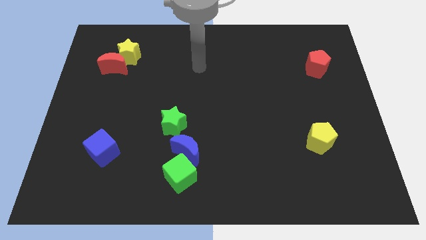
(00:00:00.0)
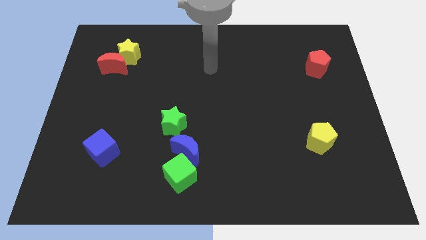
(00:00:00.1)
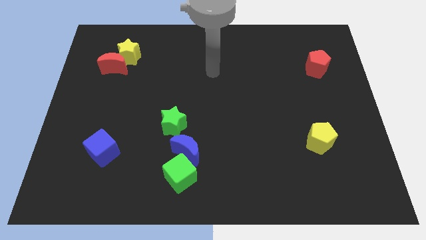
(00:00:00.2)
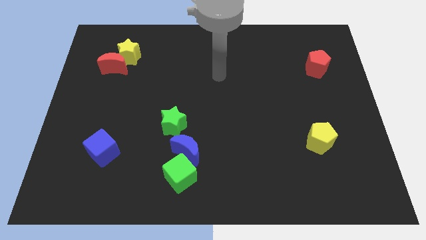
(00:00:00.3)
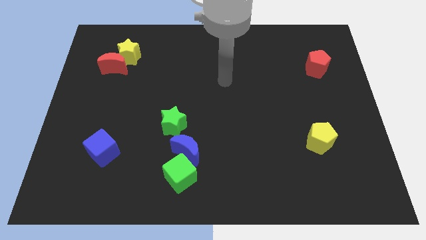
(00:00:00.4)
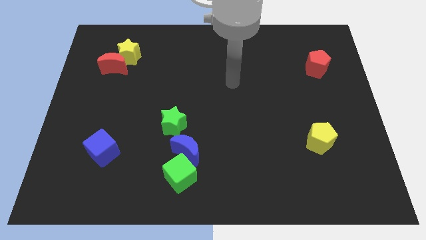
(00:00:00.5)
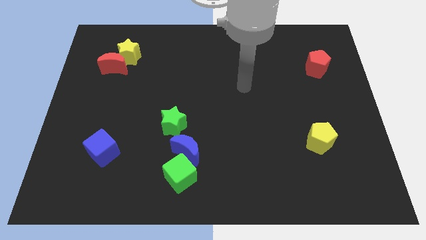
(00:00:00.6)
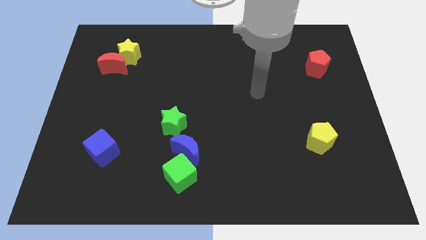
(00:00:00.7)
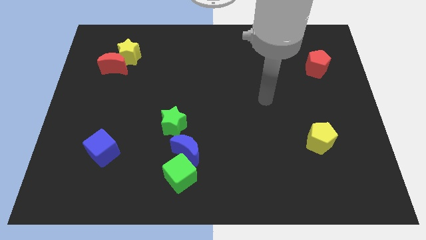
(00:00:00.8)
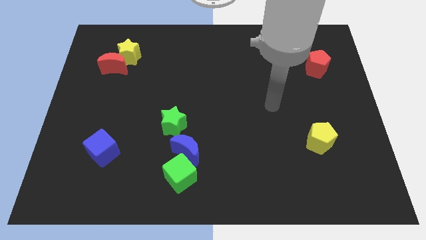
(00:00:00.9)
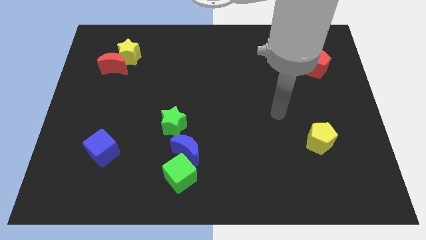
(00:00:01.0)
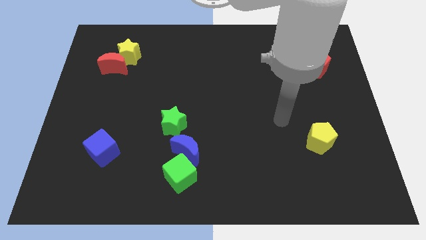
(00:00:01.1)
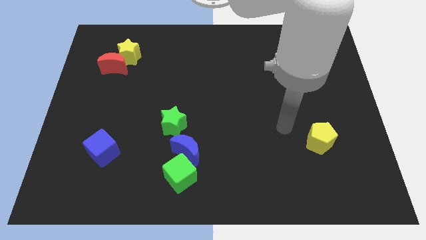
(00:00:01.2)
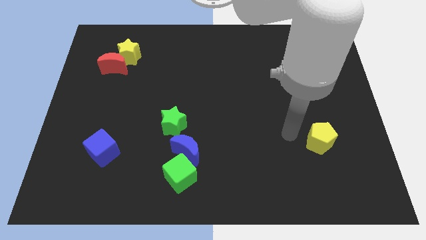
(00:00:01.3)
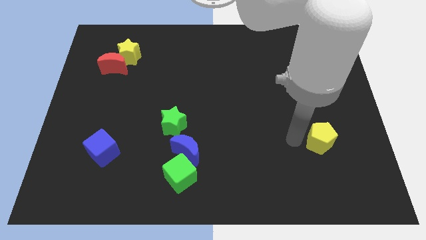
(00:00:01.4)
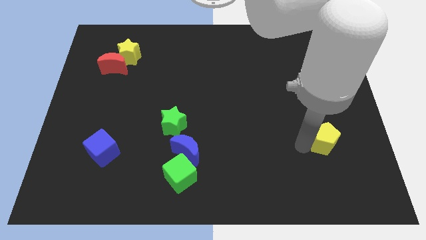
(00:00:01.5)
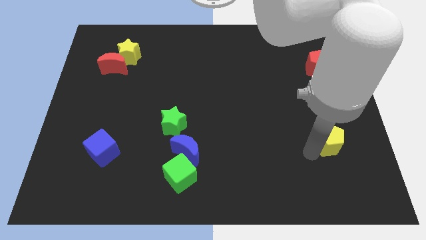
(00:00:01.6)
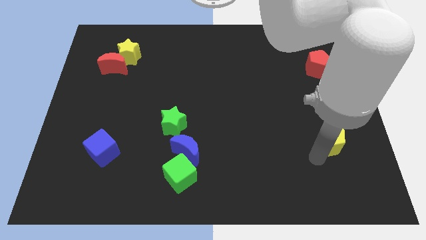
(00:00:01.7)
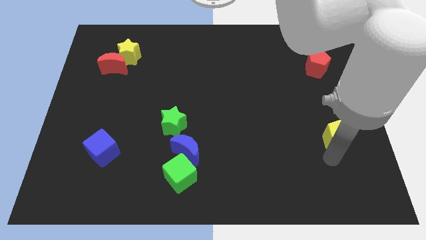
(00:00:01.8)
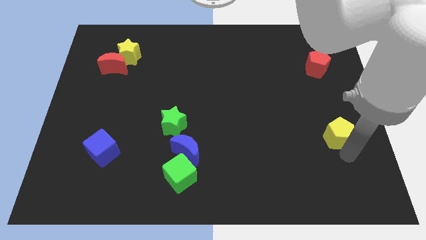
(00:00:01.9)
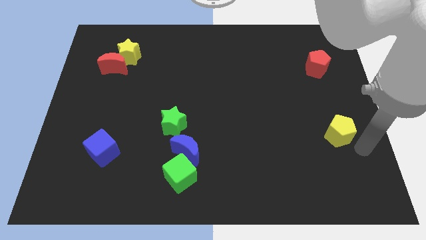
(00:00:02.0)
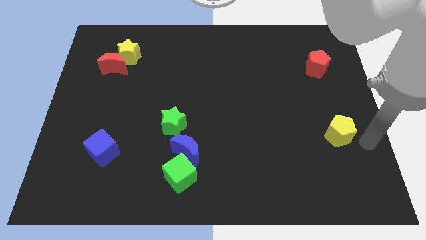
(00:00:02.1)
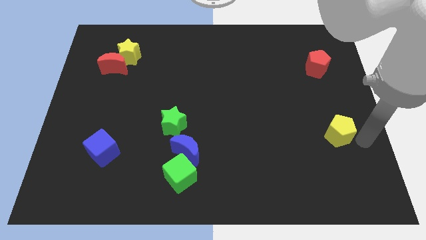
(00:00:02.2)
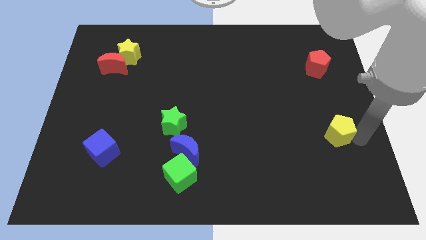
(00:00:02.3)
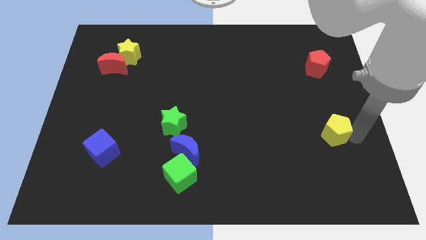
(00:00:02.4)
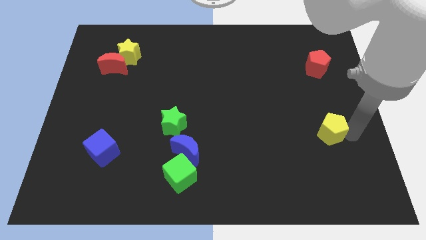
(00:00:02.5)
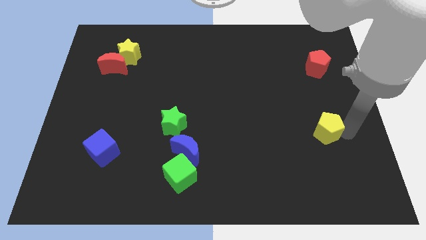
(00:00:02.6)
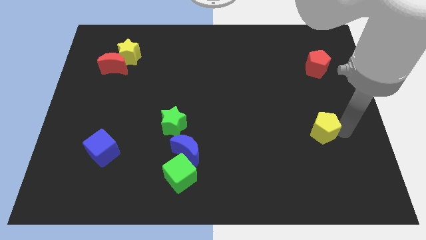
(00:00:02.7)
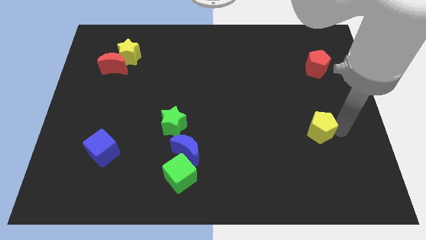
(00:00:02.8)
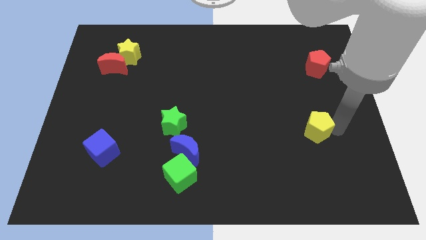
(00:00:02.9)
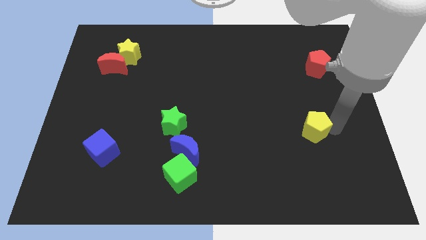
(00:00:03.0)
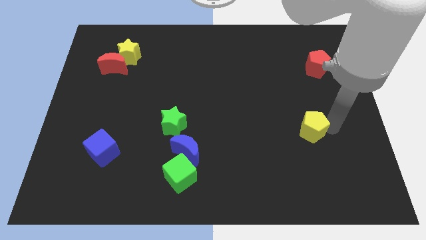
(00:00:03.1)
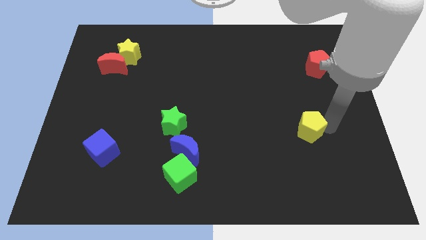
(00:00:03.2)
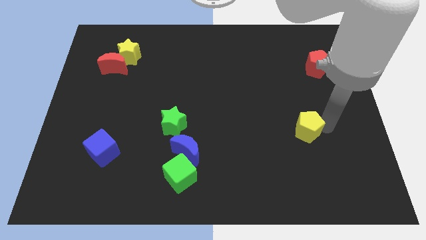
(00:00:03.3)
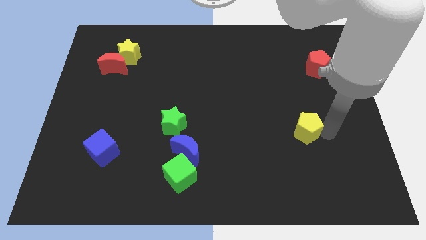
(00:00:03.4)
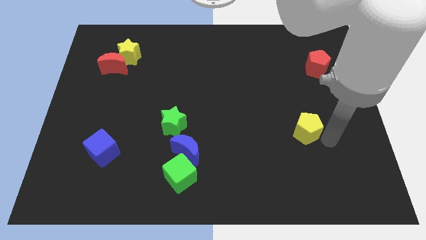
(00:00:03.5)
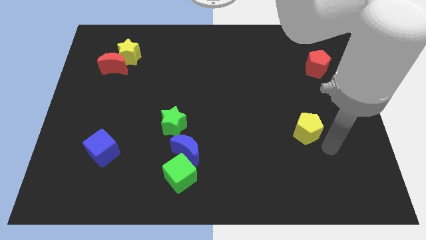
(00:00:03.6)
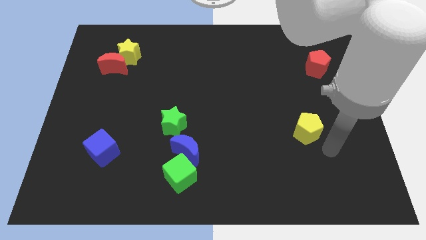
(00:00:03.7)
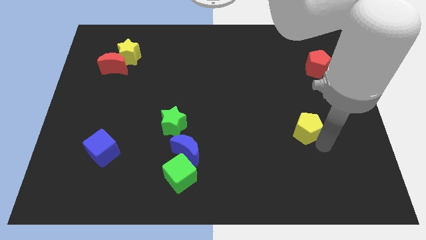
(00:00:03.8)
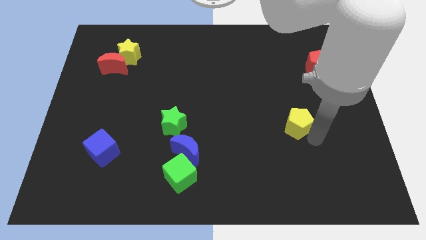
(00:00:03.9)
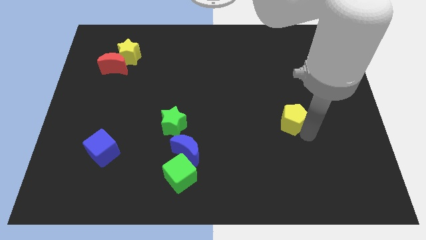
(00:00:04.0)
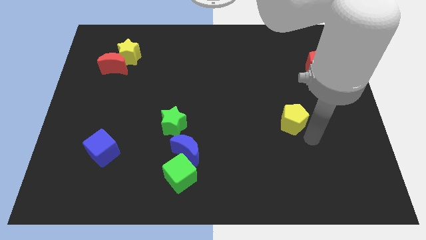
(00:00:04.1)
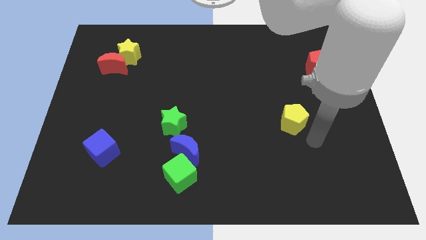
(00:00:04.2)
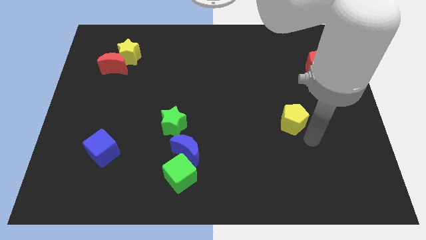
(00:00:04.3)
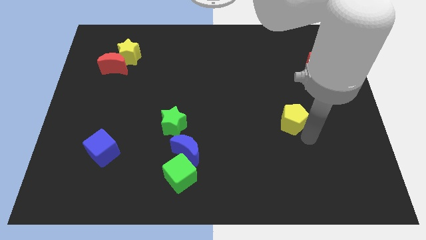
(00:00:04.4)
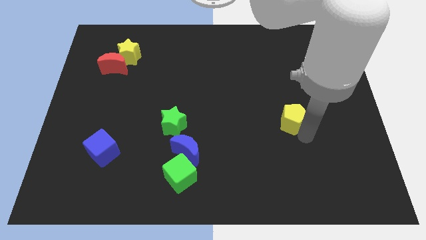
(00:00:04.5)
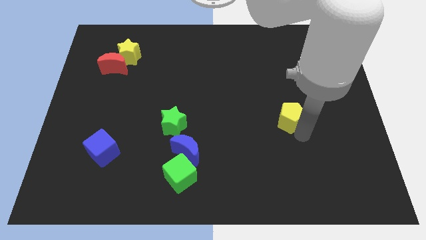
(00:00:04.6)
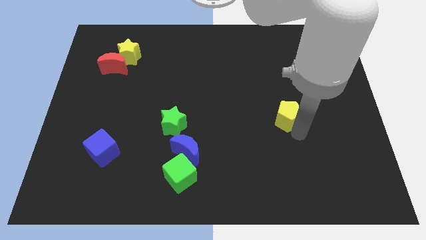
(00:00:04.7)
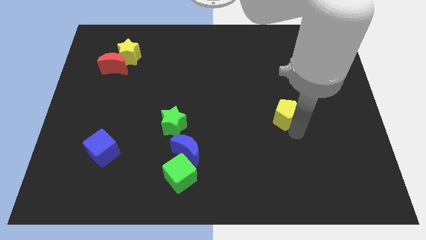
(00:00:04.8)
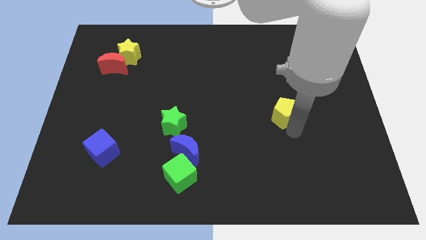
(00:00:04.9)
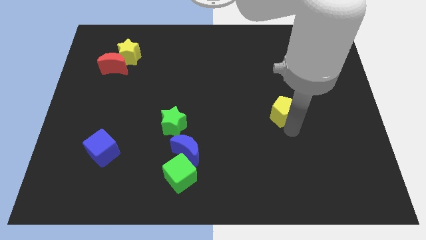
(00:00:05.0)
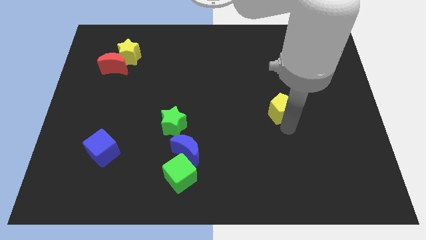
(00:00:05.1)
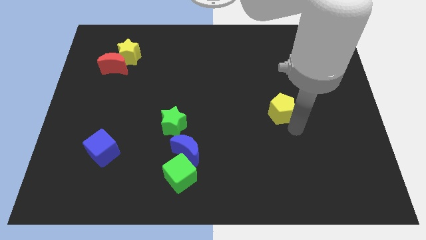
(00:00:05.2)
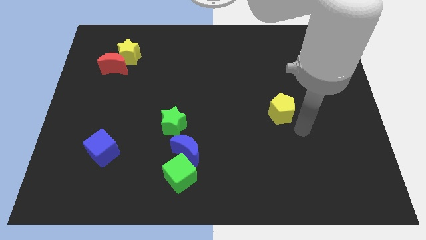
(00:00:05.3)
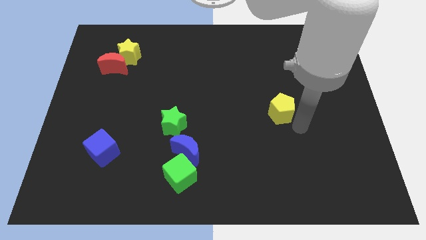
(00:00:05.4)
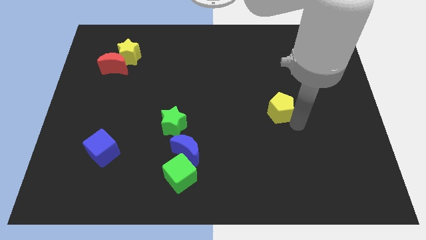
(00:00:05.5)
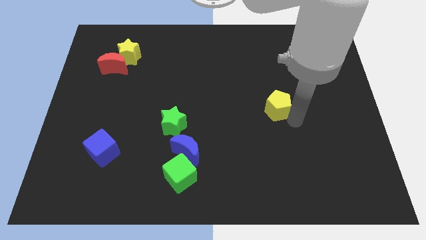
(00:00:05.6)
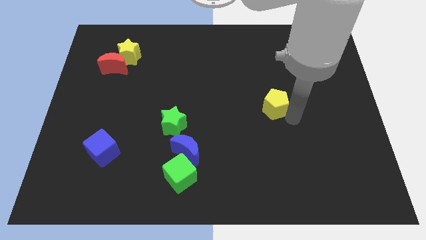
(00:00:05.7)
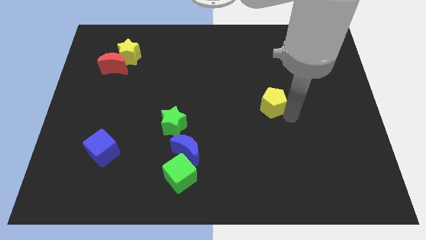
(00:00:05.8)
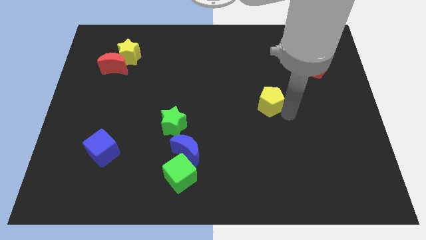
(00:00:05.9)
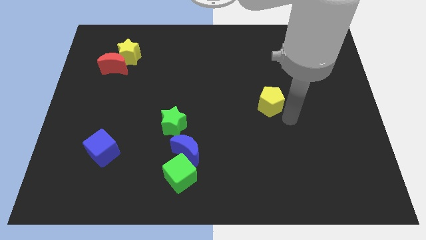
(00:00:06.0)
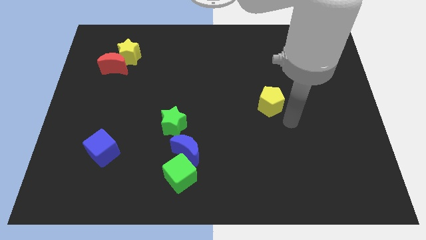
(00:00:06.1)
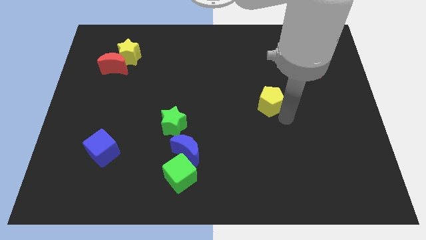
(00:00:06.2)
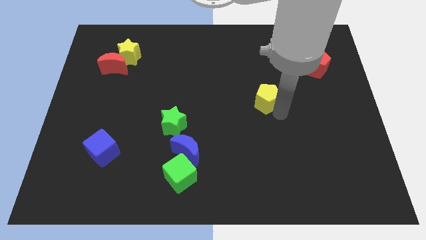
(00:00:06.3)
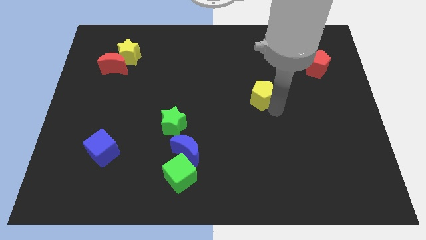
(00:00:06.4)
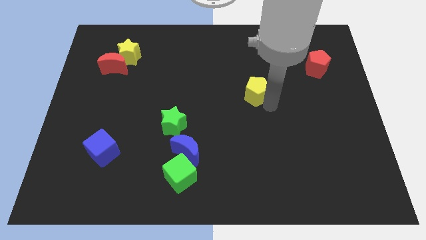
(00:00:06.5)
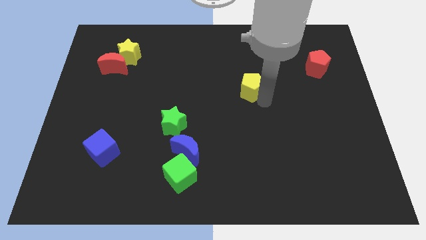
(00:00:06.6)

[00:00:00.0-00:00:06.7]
slide the yellow pentagon upwards and to the left diagonally

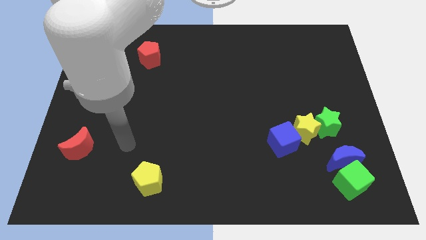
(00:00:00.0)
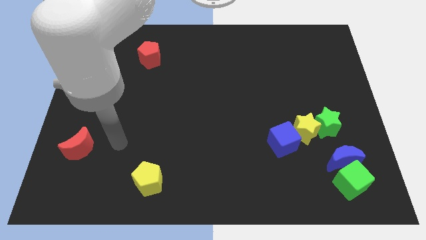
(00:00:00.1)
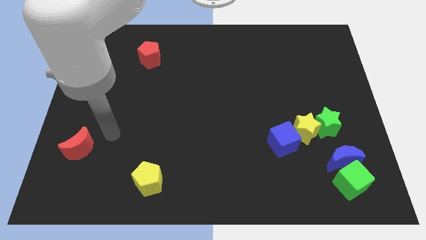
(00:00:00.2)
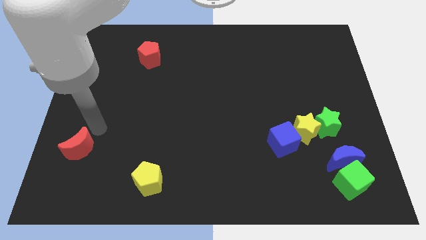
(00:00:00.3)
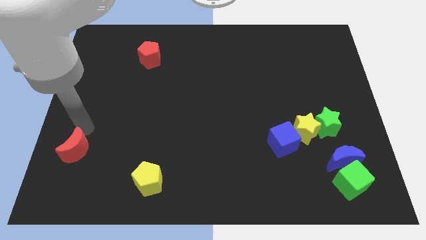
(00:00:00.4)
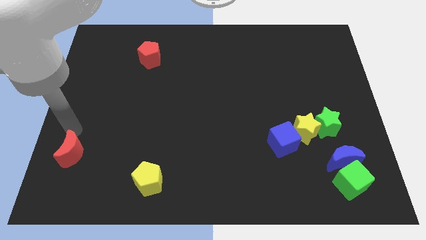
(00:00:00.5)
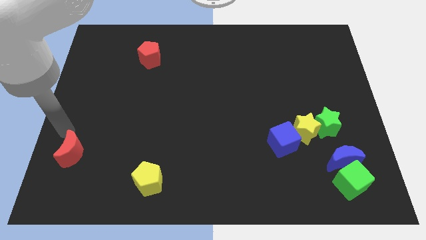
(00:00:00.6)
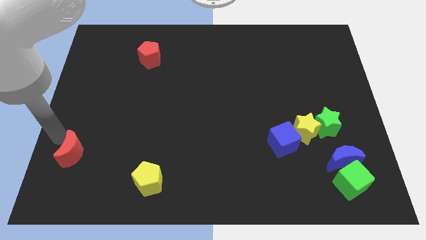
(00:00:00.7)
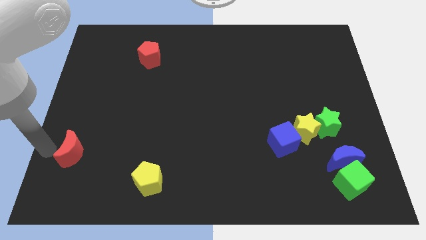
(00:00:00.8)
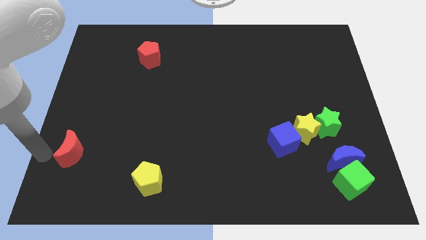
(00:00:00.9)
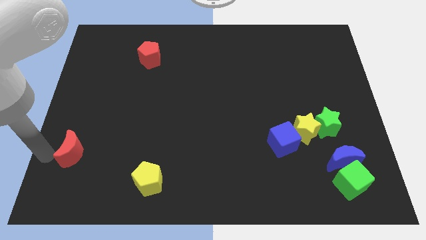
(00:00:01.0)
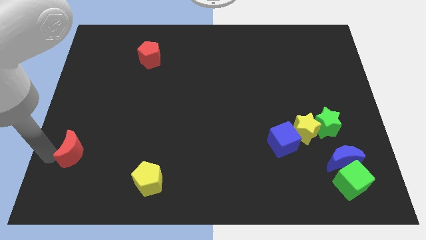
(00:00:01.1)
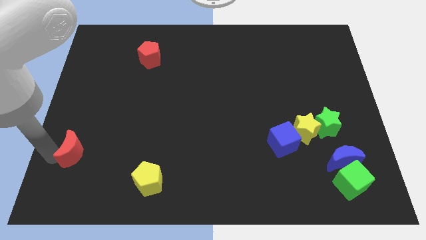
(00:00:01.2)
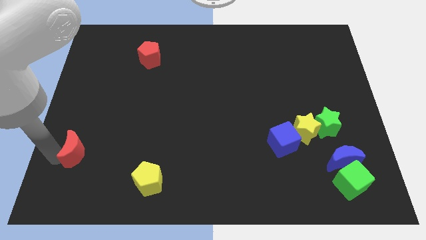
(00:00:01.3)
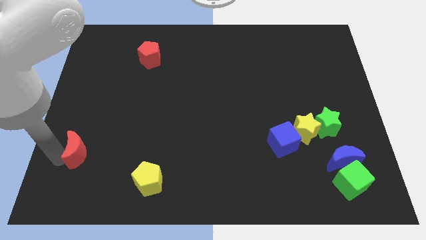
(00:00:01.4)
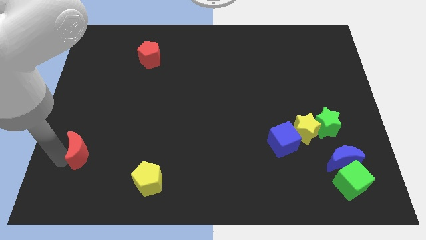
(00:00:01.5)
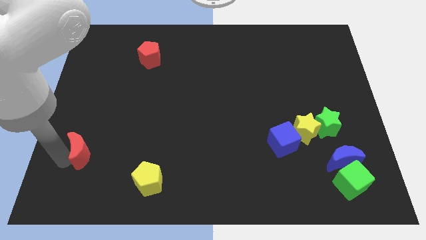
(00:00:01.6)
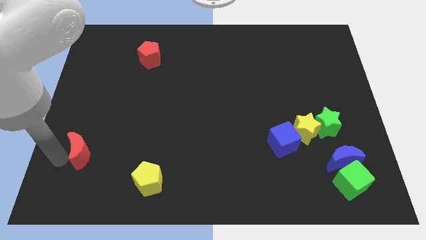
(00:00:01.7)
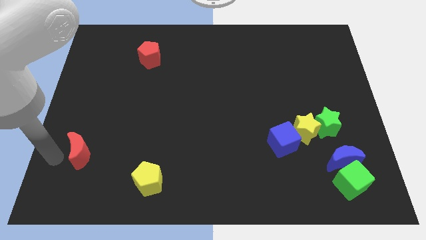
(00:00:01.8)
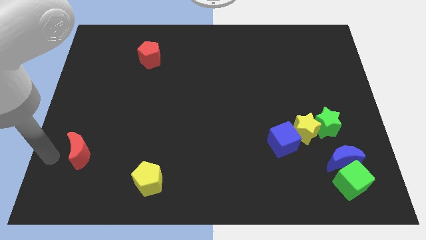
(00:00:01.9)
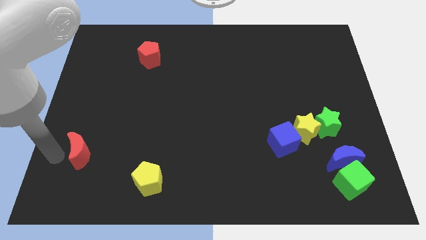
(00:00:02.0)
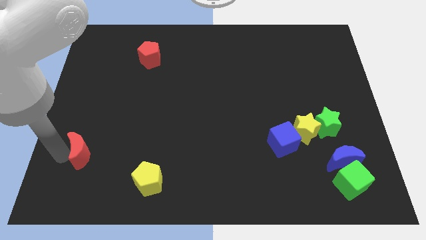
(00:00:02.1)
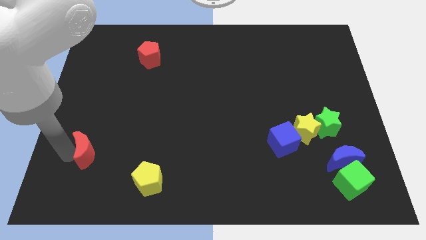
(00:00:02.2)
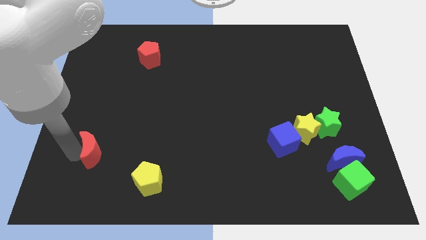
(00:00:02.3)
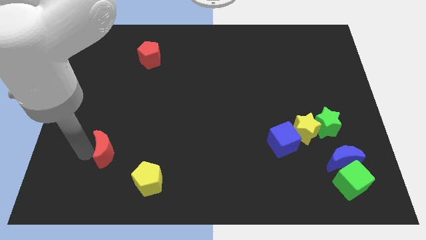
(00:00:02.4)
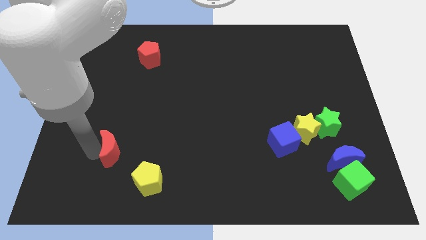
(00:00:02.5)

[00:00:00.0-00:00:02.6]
slightly push the red moon to the right
